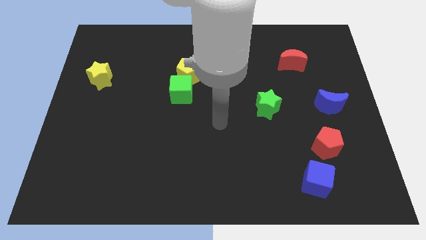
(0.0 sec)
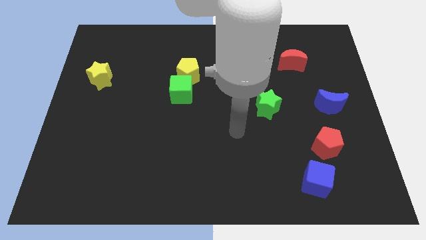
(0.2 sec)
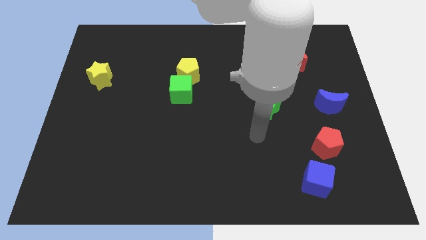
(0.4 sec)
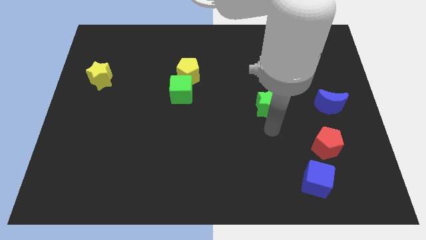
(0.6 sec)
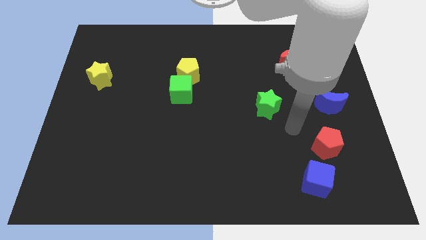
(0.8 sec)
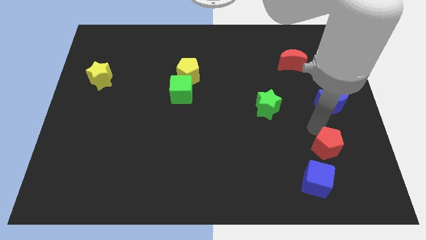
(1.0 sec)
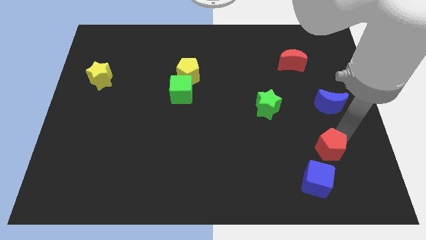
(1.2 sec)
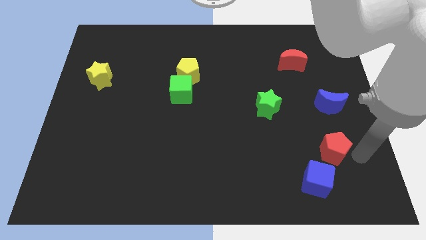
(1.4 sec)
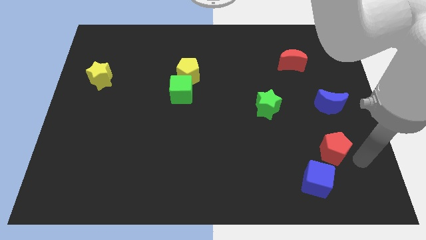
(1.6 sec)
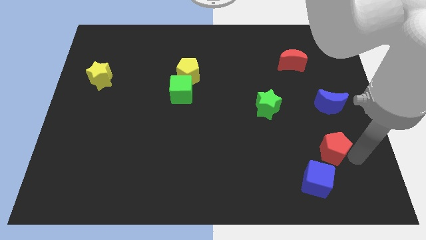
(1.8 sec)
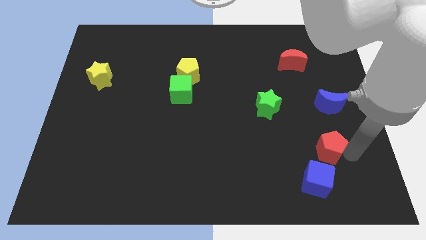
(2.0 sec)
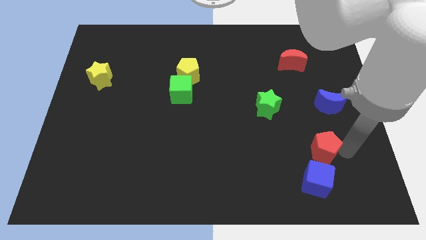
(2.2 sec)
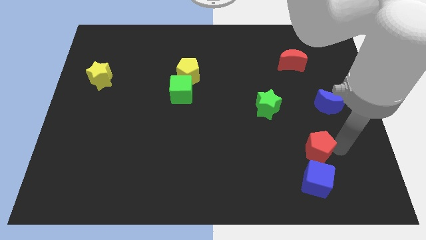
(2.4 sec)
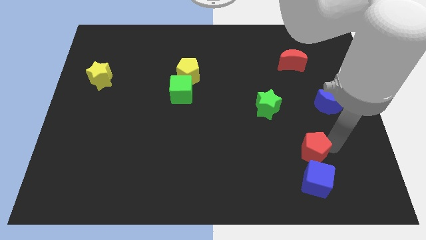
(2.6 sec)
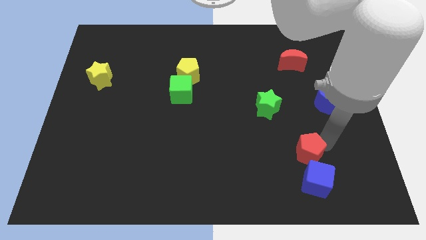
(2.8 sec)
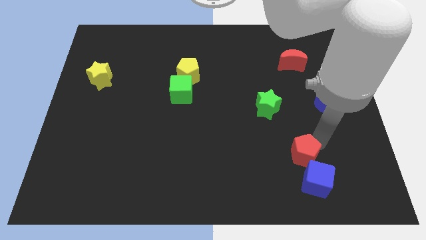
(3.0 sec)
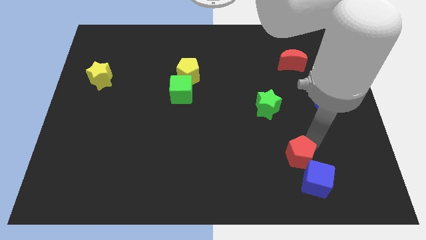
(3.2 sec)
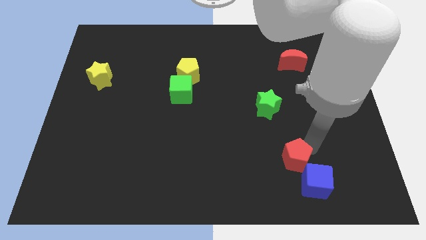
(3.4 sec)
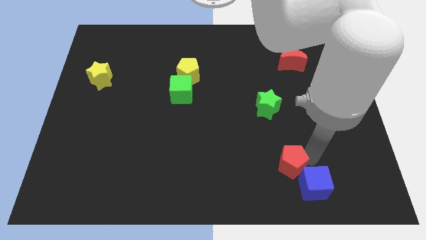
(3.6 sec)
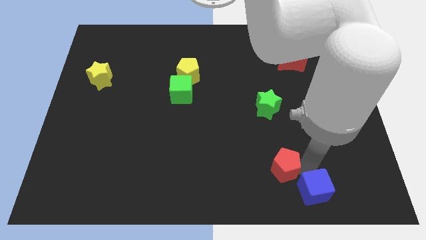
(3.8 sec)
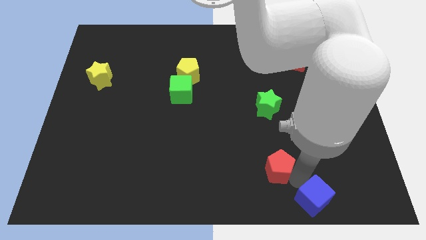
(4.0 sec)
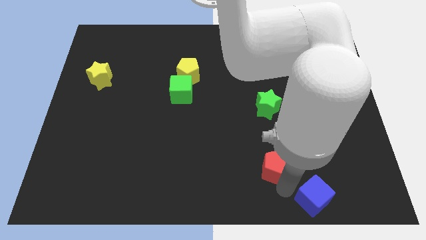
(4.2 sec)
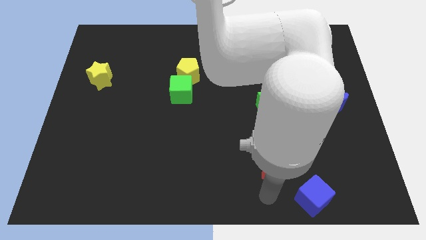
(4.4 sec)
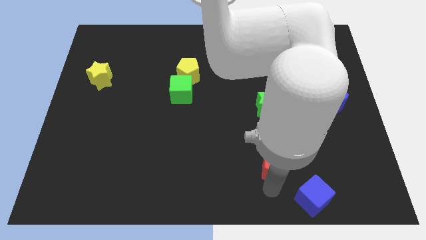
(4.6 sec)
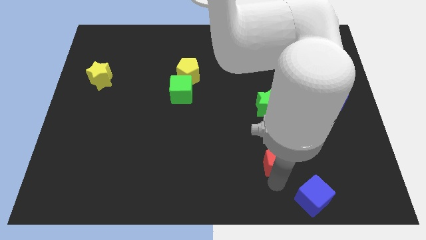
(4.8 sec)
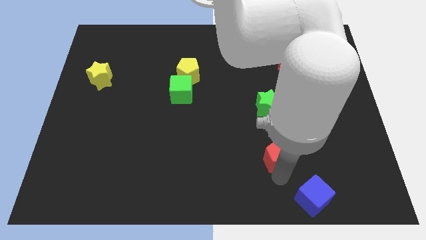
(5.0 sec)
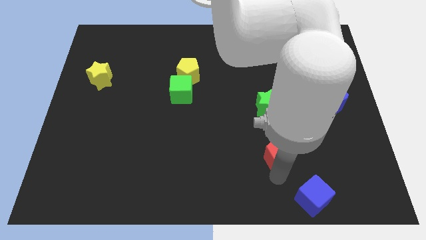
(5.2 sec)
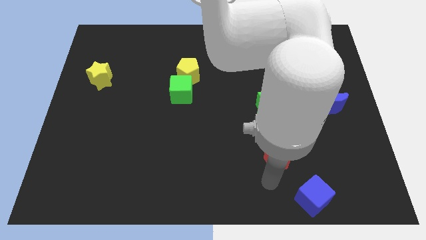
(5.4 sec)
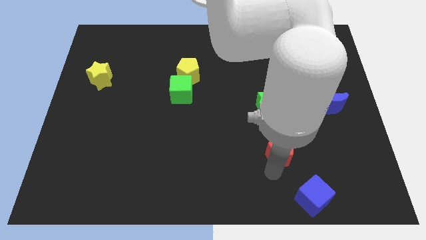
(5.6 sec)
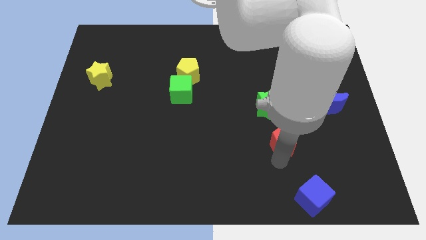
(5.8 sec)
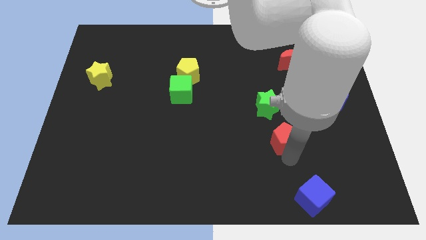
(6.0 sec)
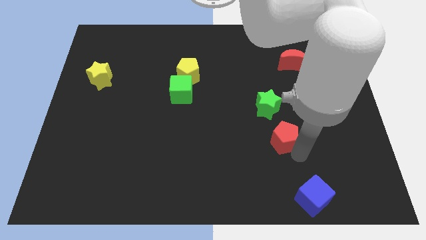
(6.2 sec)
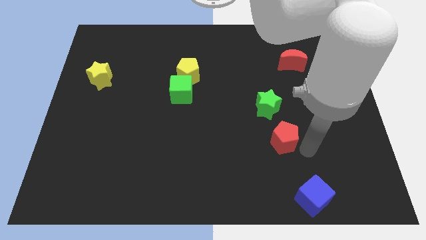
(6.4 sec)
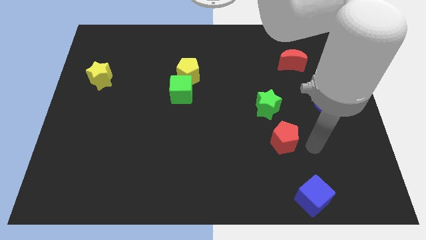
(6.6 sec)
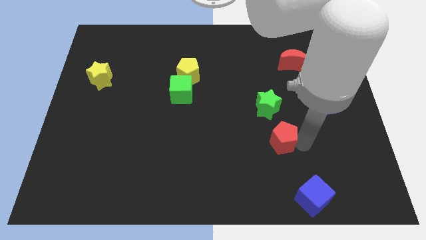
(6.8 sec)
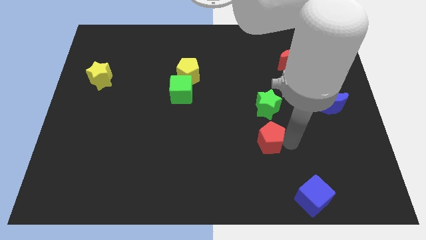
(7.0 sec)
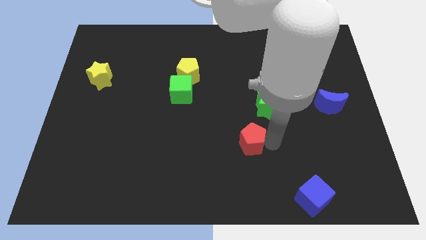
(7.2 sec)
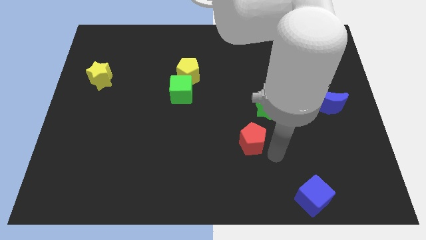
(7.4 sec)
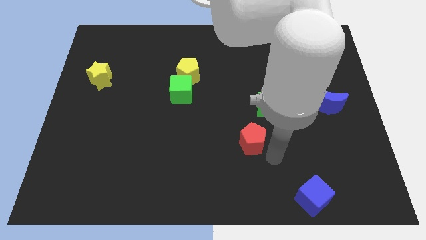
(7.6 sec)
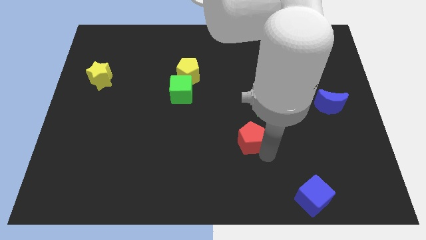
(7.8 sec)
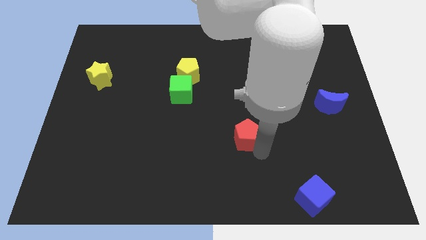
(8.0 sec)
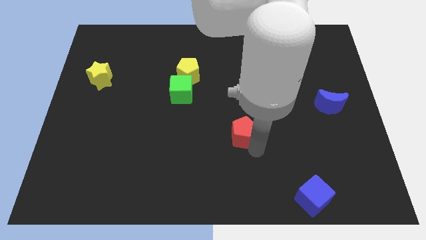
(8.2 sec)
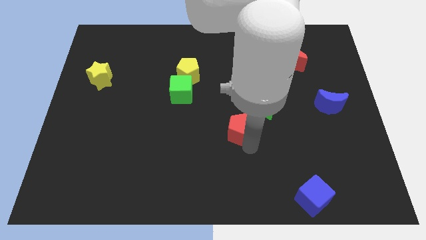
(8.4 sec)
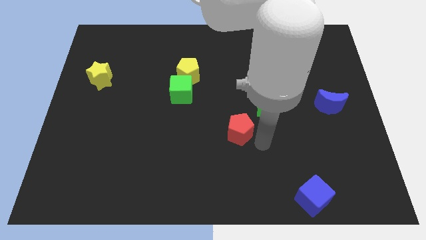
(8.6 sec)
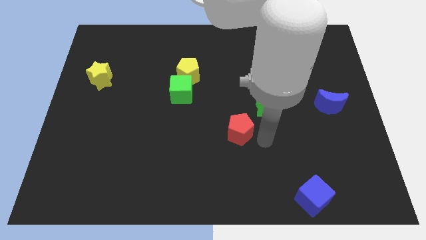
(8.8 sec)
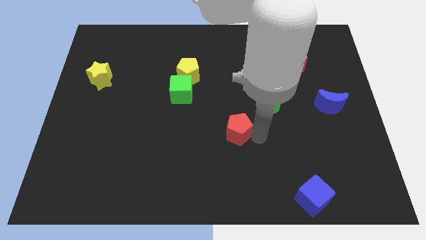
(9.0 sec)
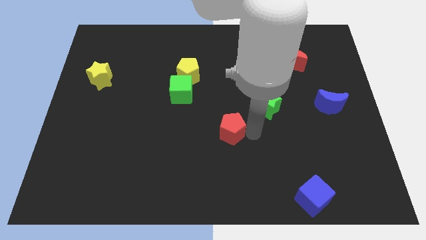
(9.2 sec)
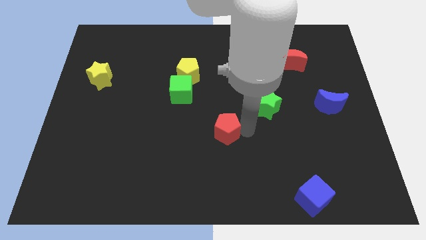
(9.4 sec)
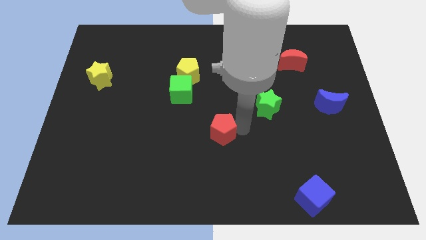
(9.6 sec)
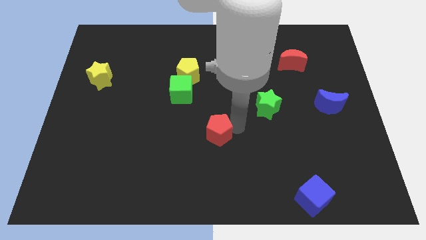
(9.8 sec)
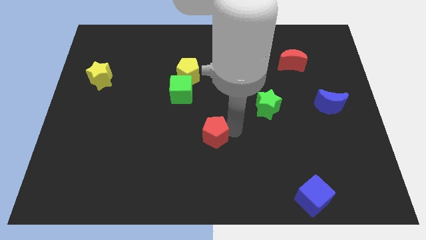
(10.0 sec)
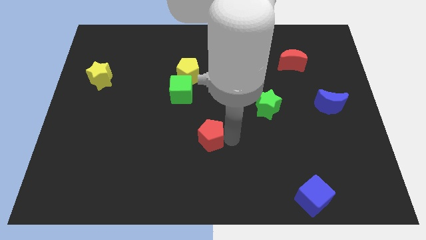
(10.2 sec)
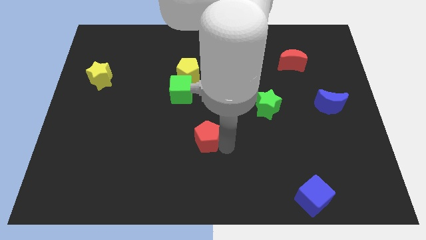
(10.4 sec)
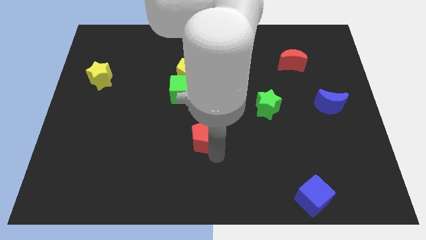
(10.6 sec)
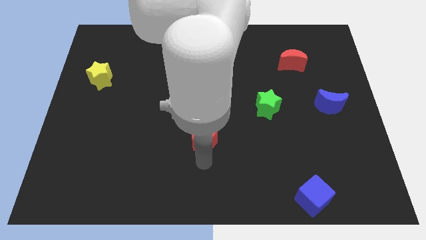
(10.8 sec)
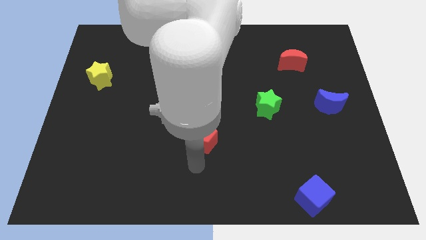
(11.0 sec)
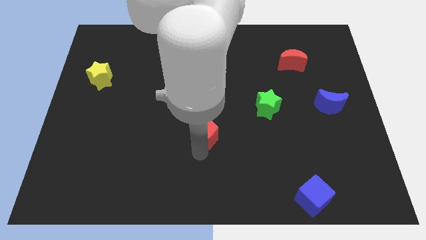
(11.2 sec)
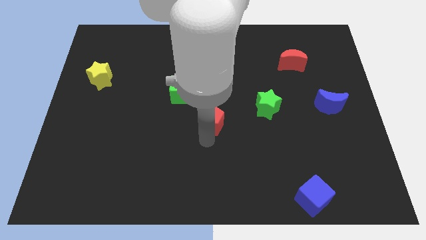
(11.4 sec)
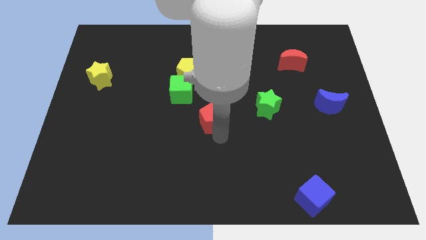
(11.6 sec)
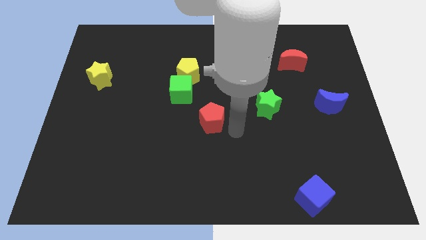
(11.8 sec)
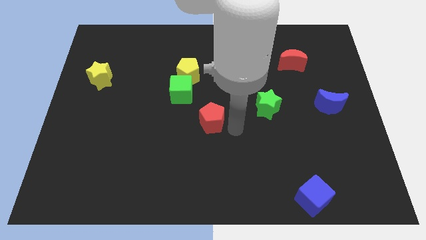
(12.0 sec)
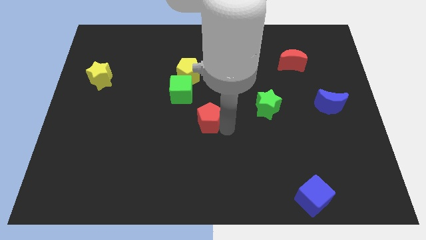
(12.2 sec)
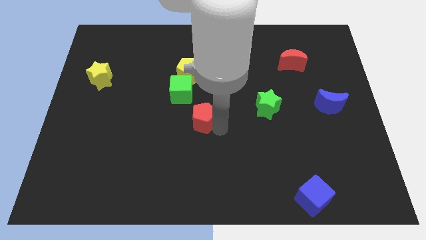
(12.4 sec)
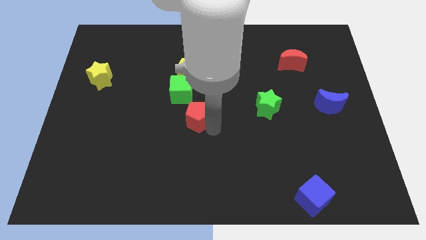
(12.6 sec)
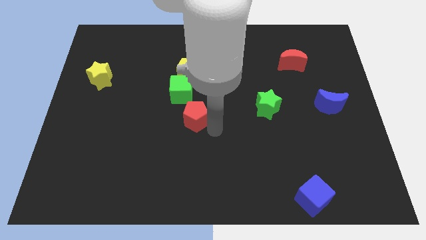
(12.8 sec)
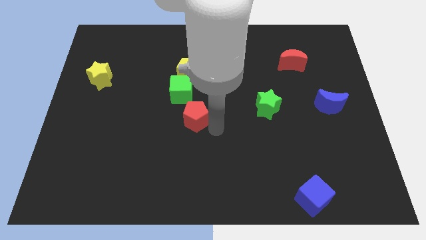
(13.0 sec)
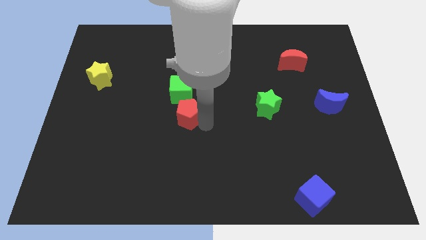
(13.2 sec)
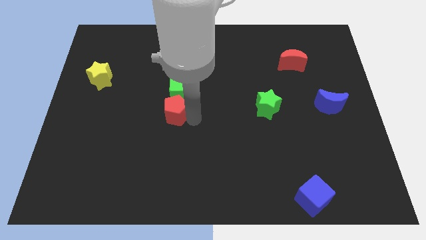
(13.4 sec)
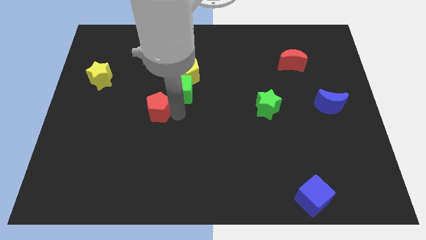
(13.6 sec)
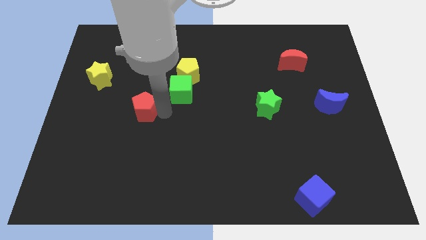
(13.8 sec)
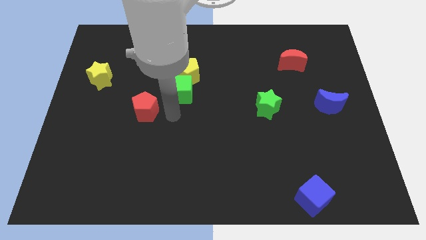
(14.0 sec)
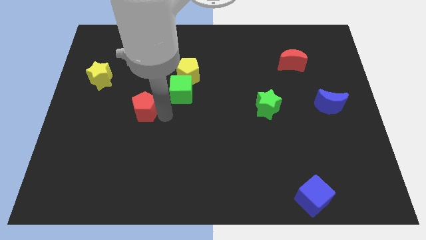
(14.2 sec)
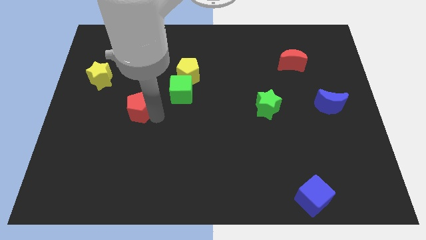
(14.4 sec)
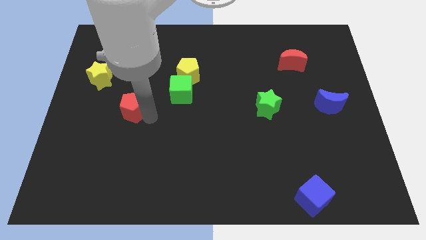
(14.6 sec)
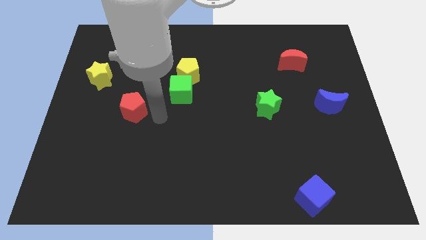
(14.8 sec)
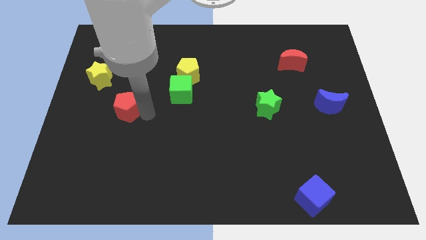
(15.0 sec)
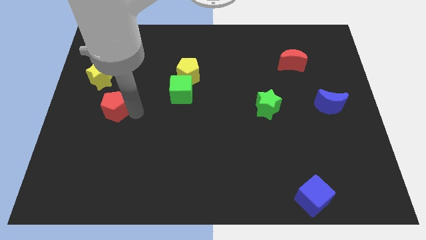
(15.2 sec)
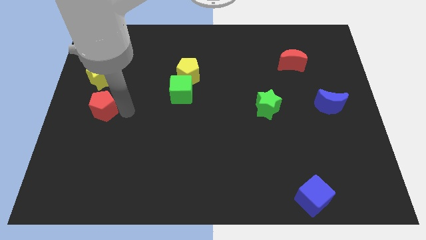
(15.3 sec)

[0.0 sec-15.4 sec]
move the red pentagon to the left side of the board
